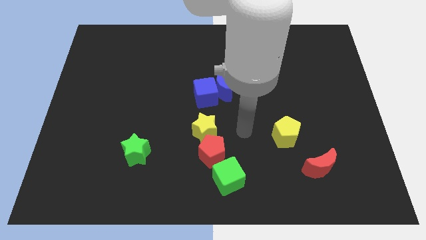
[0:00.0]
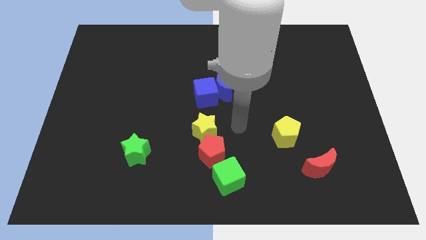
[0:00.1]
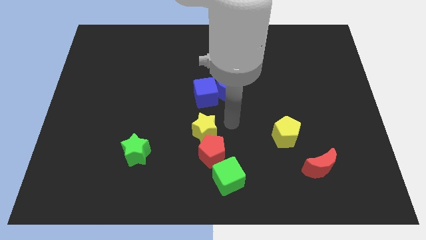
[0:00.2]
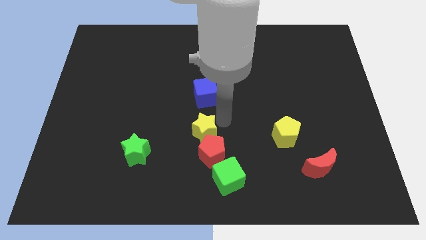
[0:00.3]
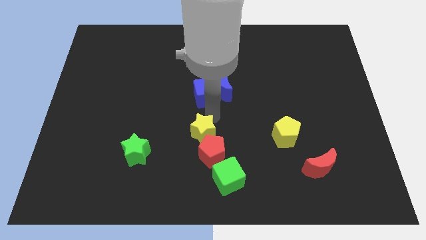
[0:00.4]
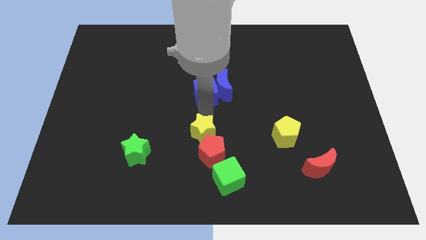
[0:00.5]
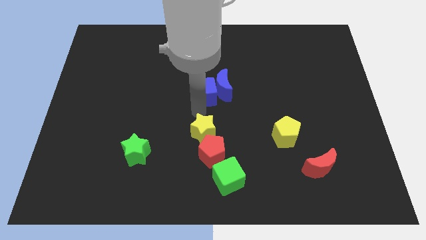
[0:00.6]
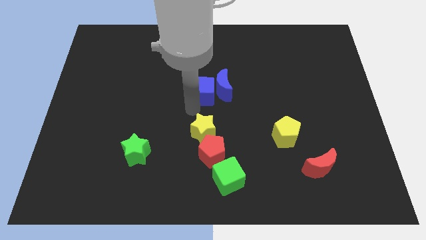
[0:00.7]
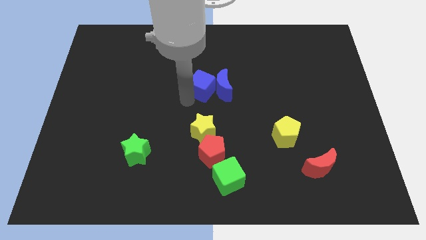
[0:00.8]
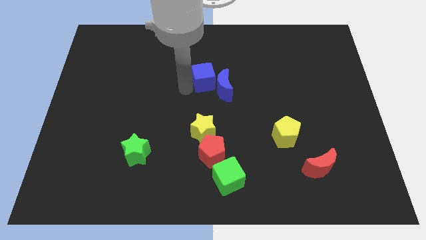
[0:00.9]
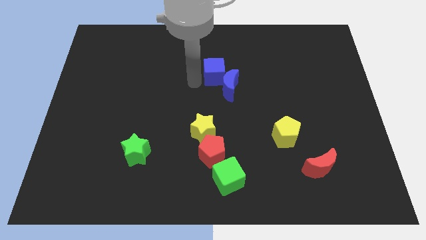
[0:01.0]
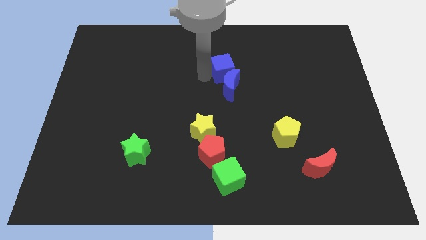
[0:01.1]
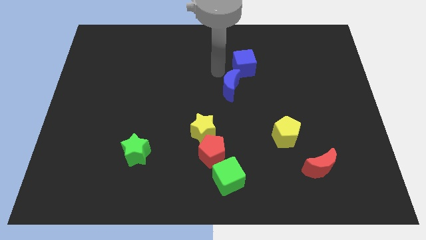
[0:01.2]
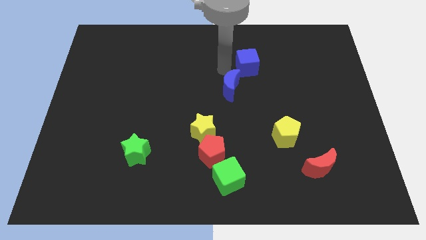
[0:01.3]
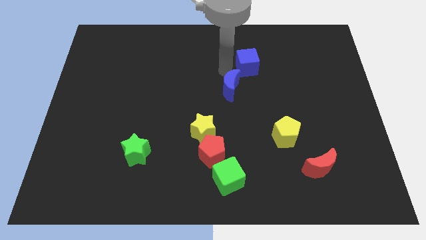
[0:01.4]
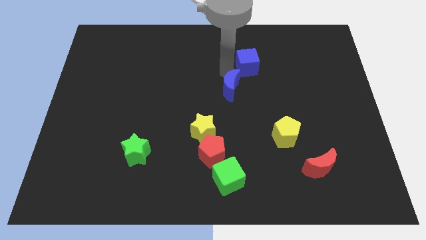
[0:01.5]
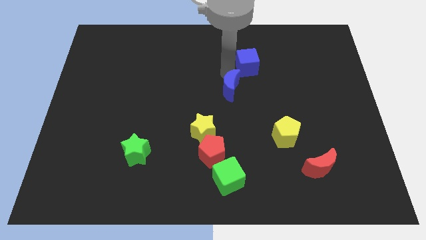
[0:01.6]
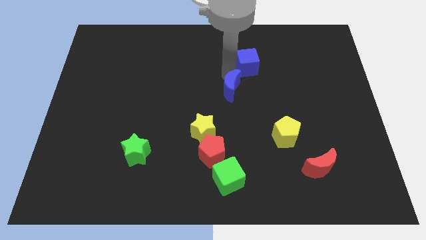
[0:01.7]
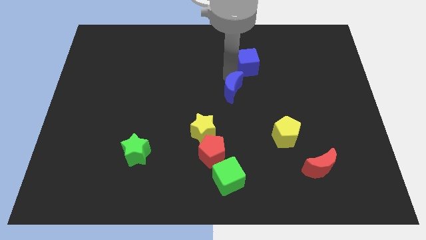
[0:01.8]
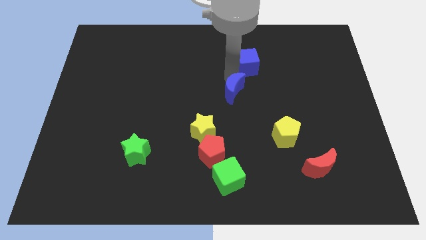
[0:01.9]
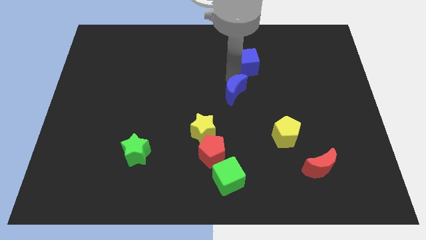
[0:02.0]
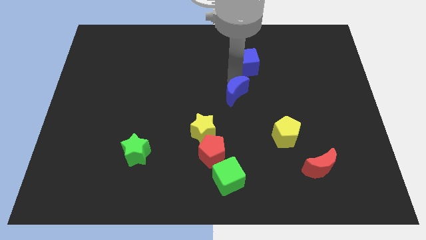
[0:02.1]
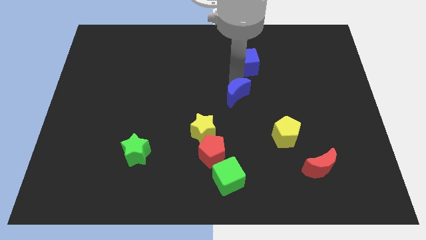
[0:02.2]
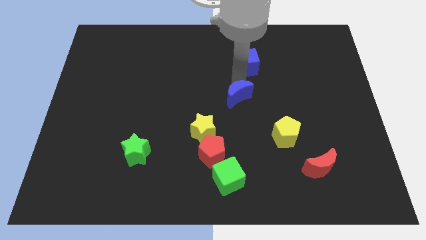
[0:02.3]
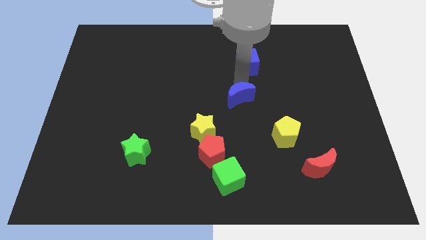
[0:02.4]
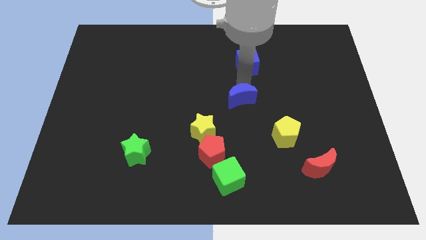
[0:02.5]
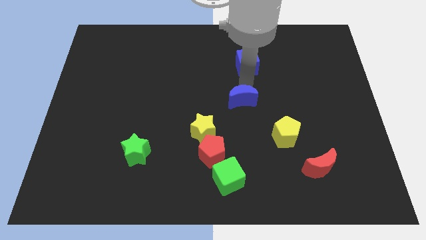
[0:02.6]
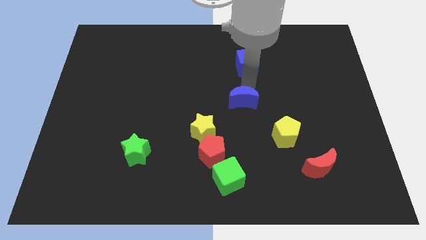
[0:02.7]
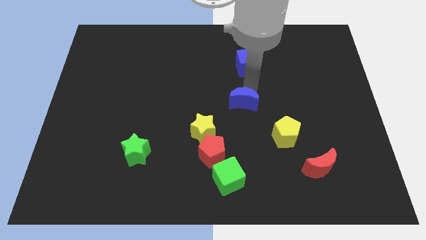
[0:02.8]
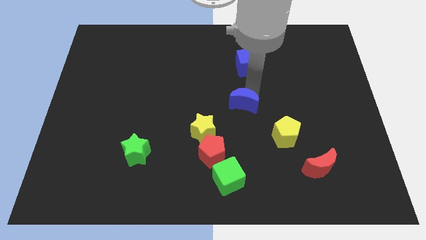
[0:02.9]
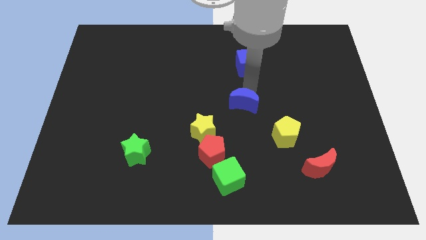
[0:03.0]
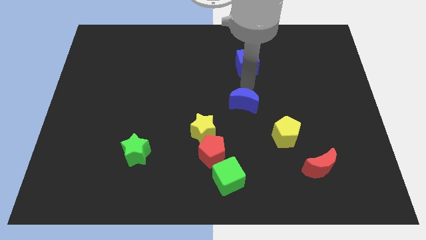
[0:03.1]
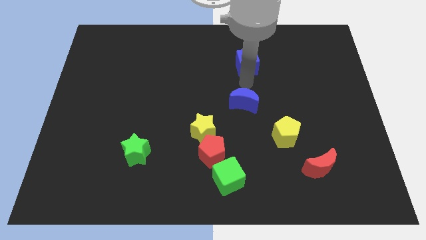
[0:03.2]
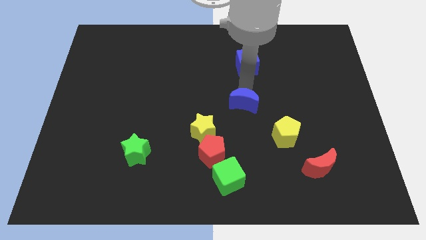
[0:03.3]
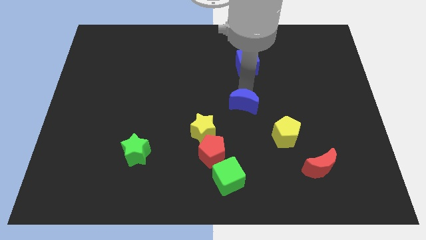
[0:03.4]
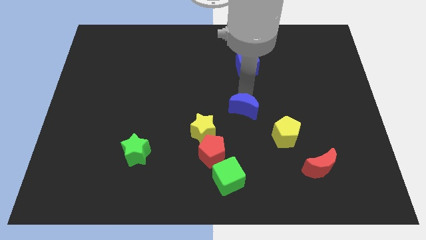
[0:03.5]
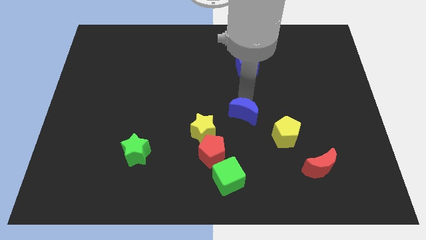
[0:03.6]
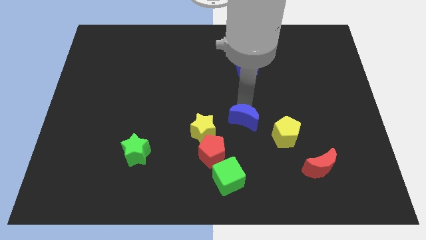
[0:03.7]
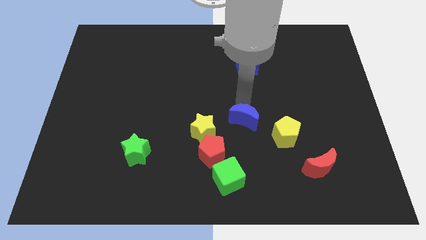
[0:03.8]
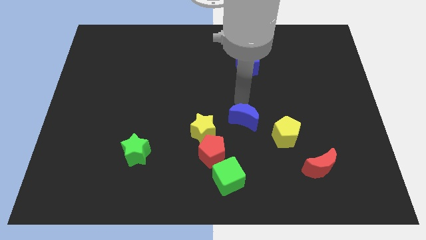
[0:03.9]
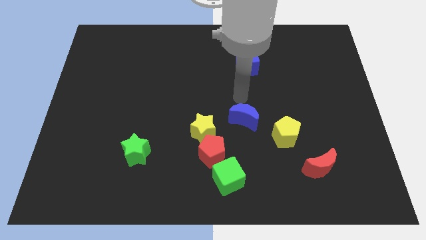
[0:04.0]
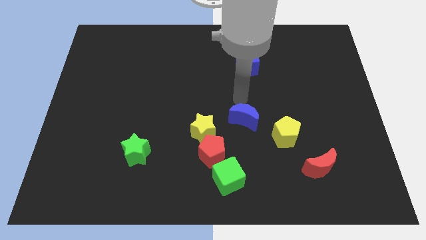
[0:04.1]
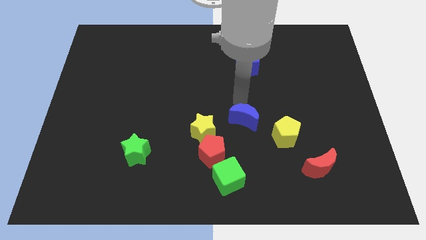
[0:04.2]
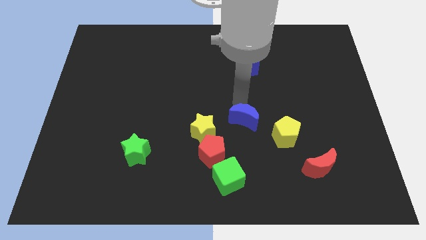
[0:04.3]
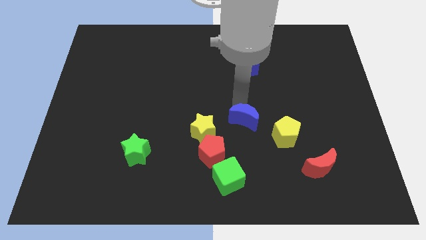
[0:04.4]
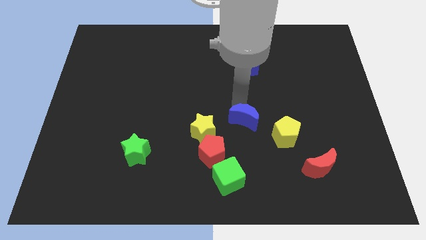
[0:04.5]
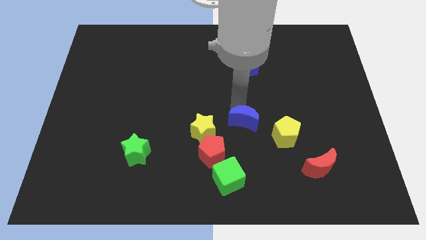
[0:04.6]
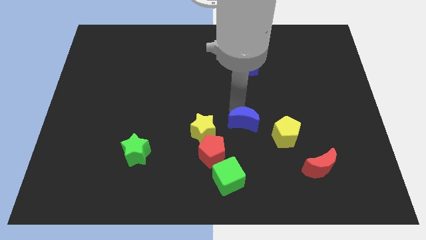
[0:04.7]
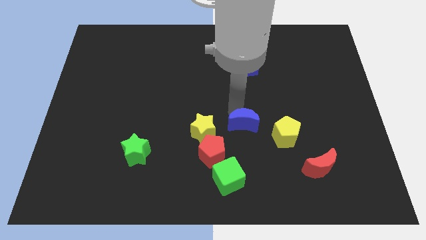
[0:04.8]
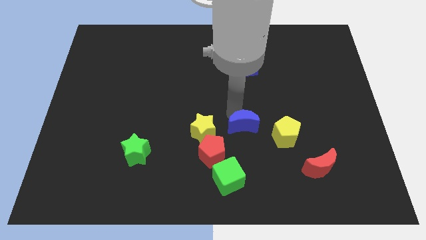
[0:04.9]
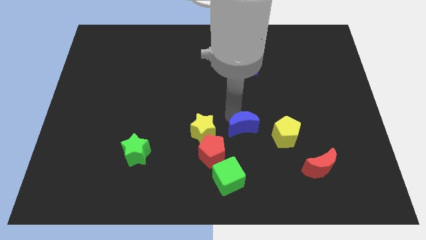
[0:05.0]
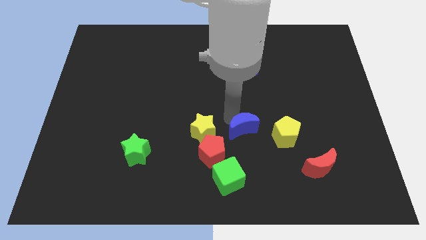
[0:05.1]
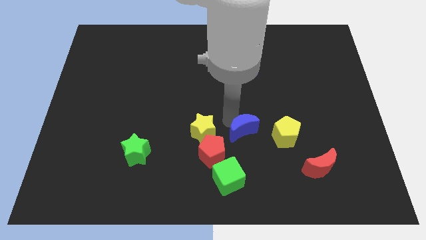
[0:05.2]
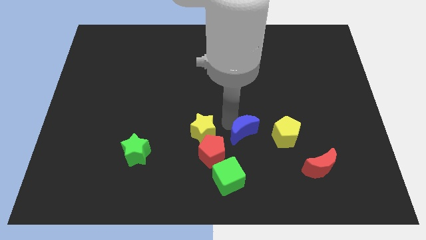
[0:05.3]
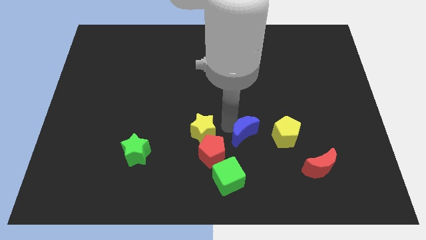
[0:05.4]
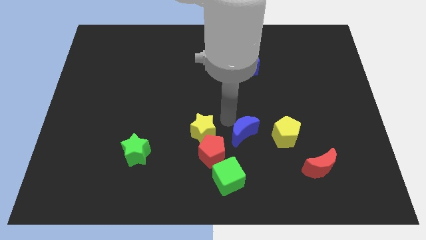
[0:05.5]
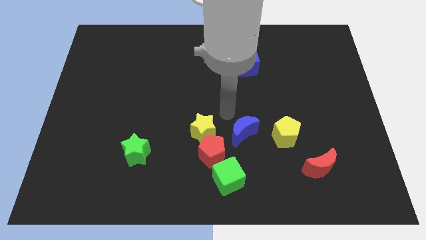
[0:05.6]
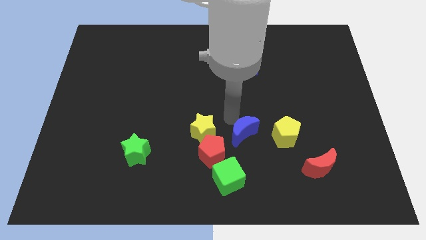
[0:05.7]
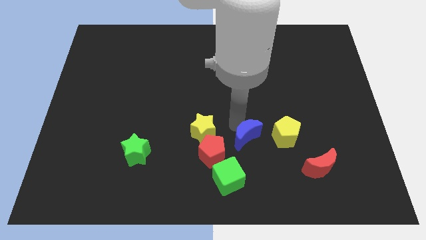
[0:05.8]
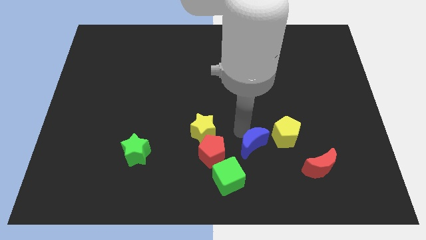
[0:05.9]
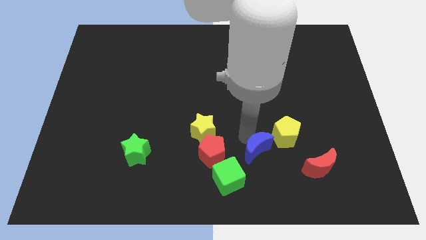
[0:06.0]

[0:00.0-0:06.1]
slide the blue moon to the left side of the red moon

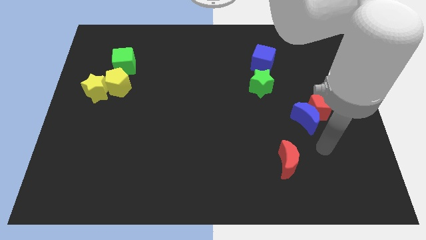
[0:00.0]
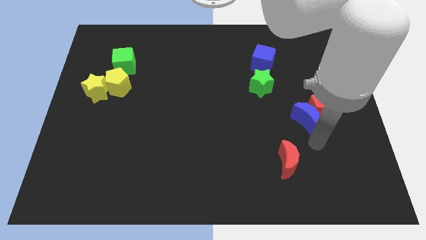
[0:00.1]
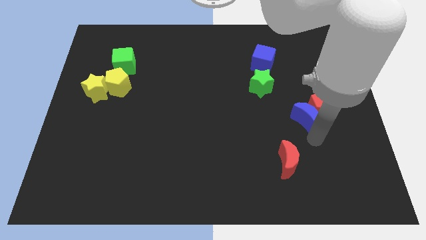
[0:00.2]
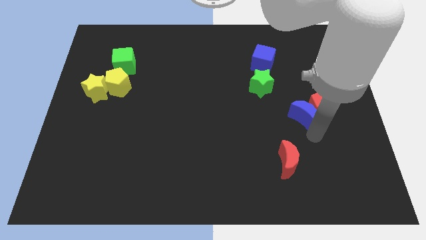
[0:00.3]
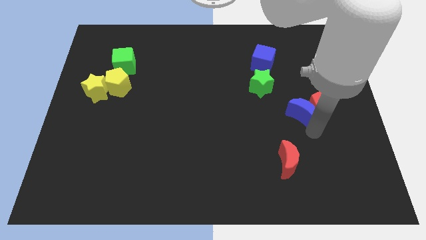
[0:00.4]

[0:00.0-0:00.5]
slide the blue moon to the top left side of the red pentagon

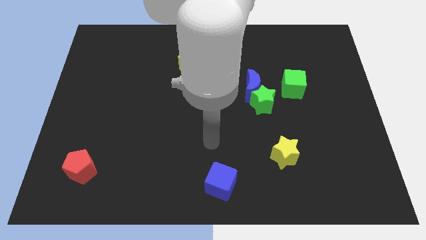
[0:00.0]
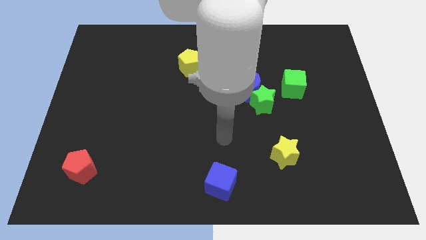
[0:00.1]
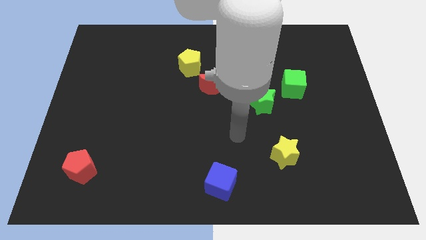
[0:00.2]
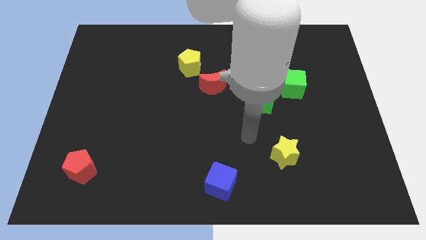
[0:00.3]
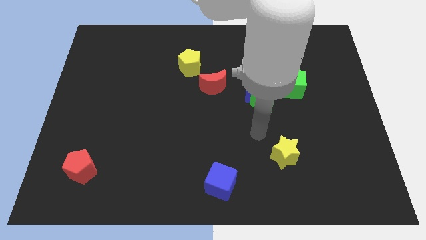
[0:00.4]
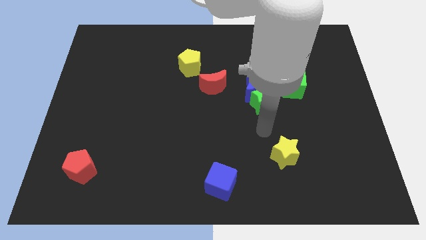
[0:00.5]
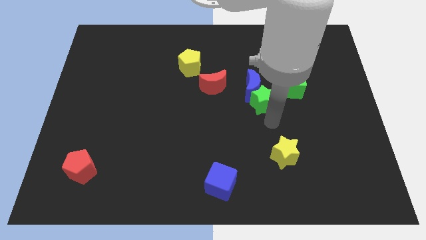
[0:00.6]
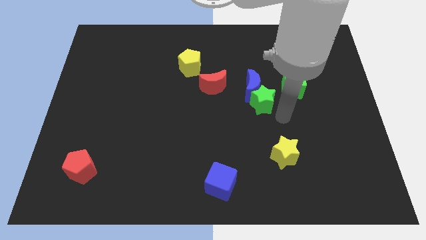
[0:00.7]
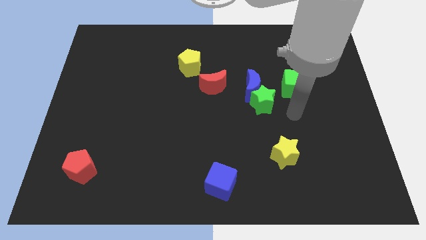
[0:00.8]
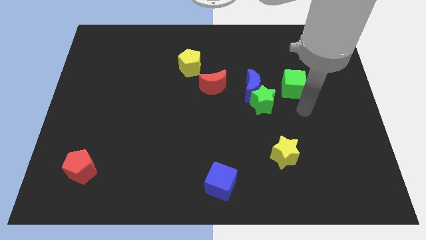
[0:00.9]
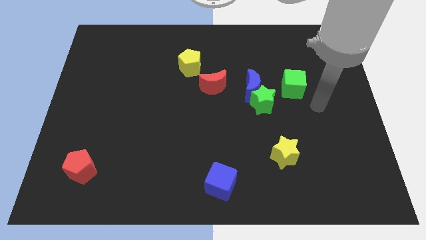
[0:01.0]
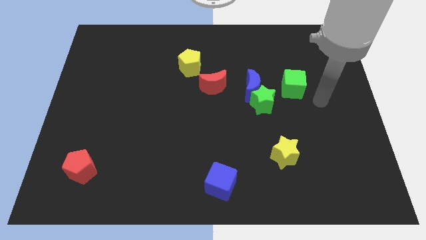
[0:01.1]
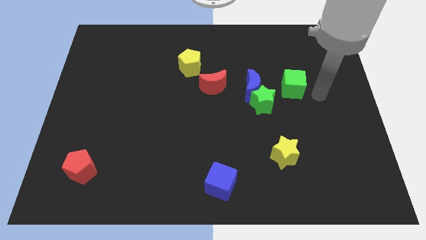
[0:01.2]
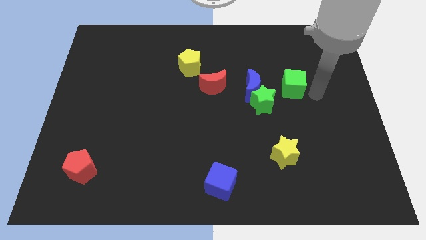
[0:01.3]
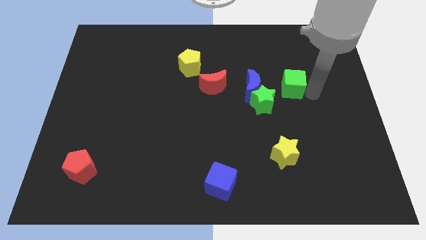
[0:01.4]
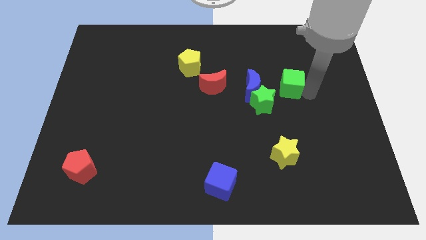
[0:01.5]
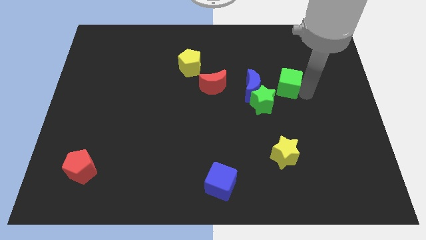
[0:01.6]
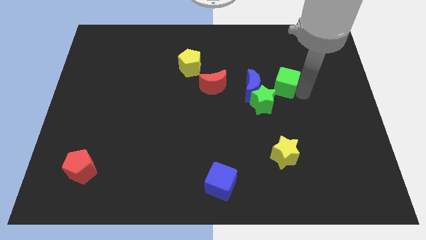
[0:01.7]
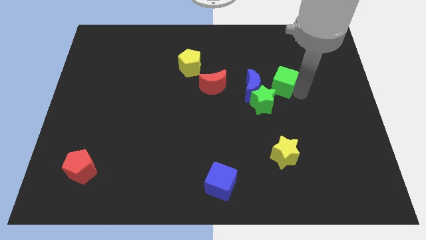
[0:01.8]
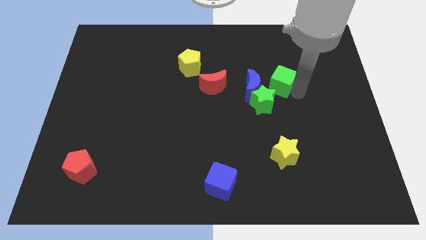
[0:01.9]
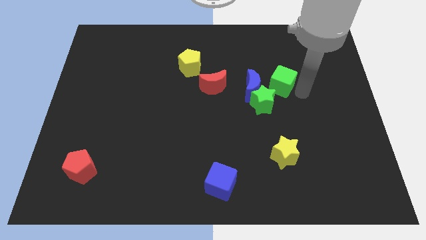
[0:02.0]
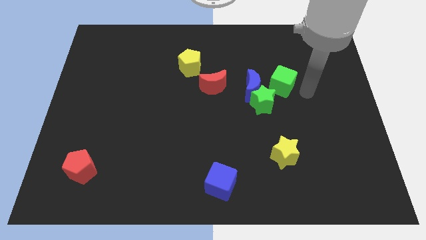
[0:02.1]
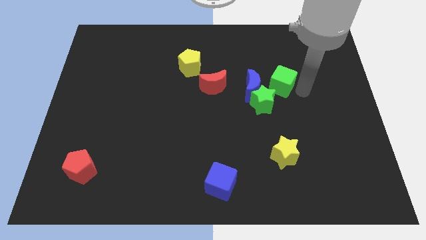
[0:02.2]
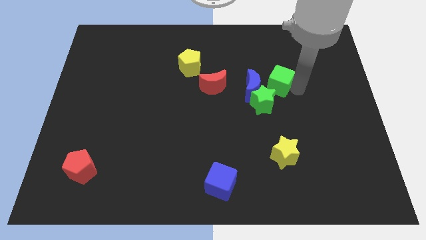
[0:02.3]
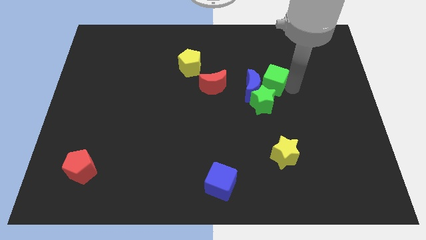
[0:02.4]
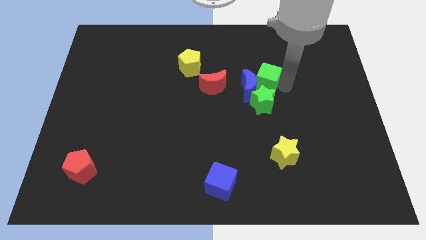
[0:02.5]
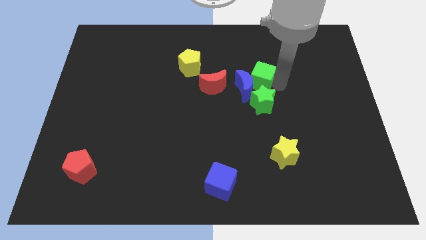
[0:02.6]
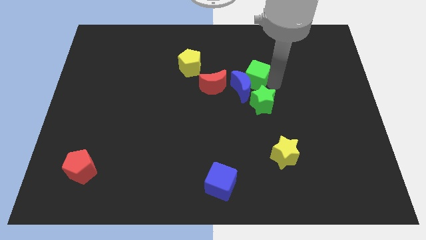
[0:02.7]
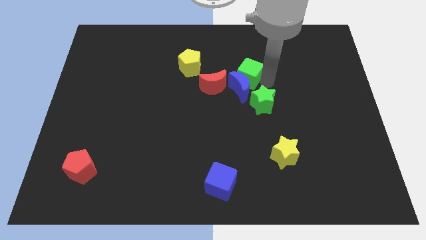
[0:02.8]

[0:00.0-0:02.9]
slide the green cube to the top right of the red moon
